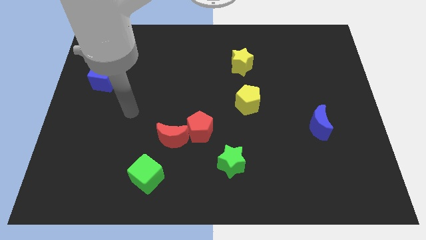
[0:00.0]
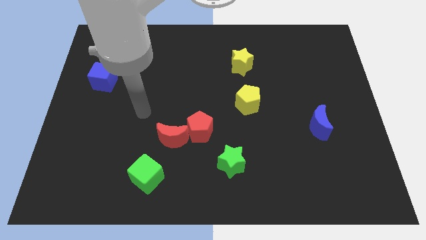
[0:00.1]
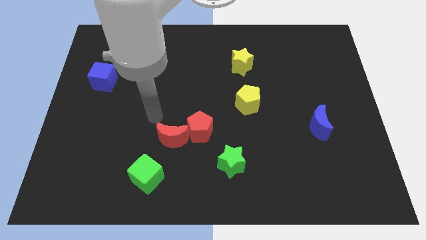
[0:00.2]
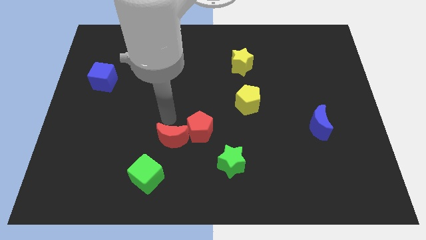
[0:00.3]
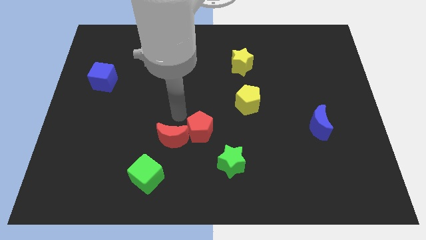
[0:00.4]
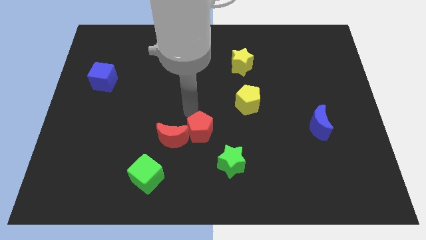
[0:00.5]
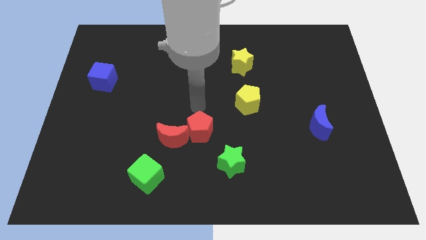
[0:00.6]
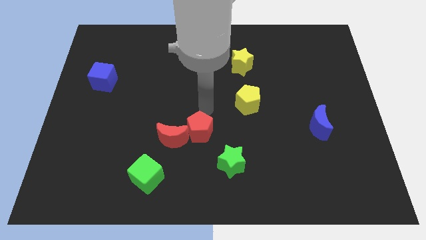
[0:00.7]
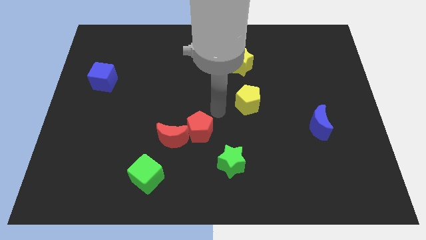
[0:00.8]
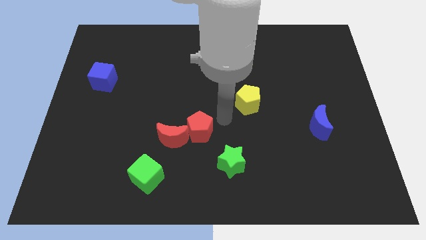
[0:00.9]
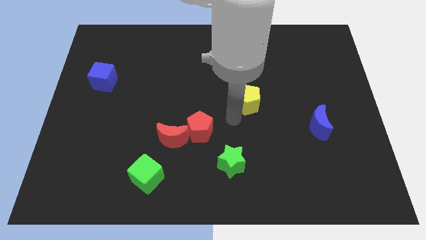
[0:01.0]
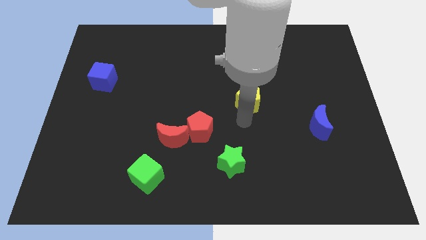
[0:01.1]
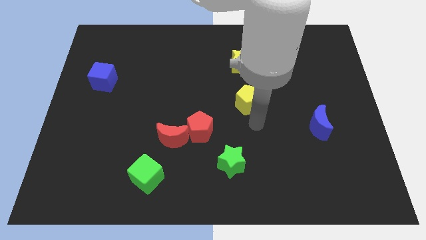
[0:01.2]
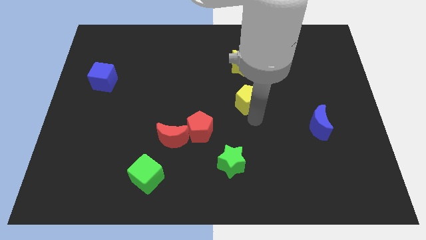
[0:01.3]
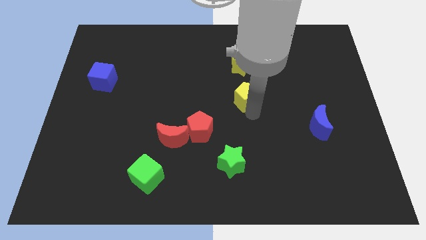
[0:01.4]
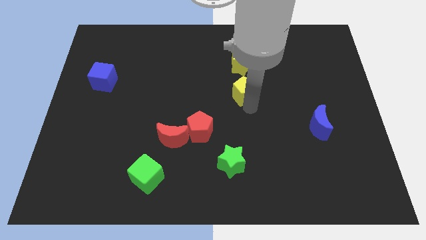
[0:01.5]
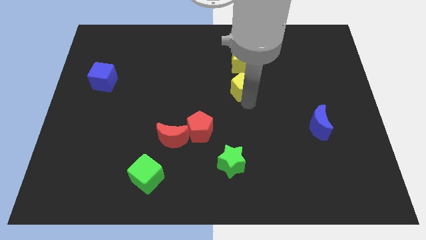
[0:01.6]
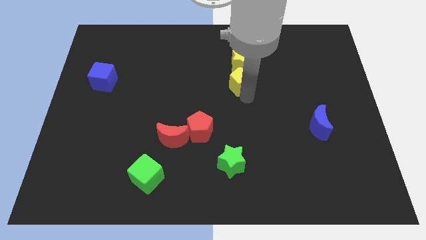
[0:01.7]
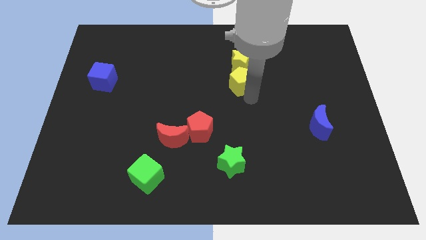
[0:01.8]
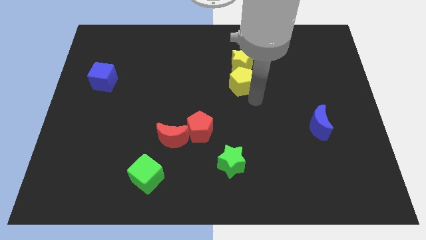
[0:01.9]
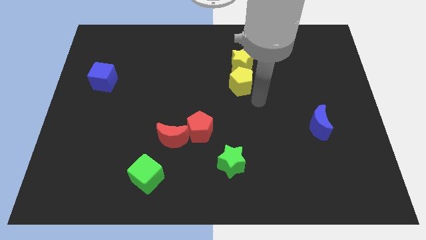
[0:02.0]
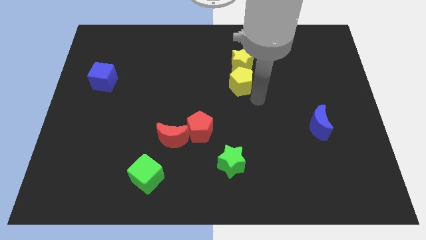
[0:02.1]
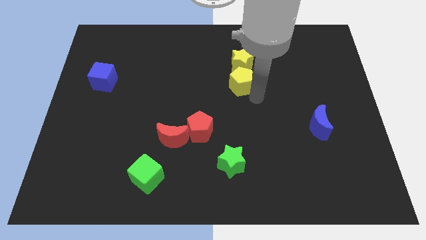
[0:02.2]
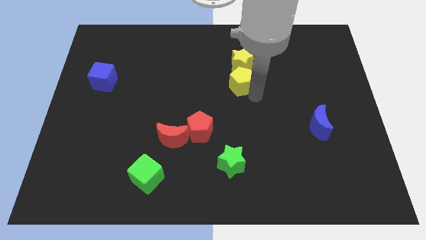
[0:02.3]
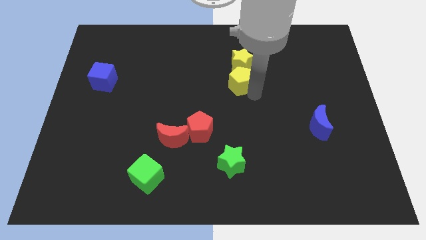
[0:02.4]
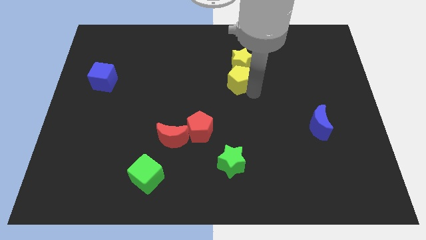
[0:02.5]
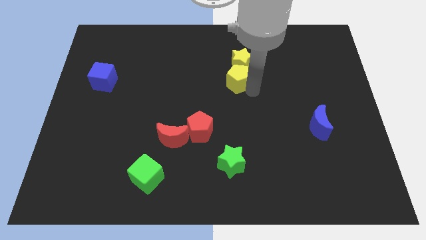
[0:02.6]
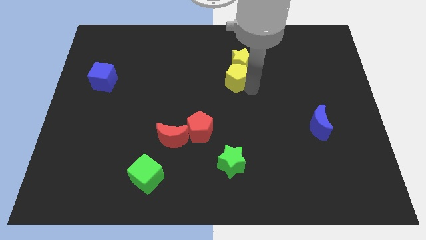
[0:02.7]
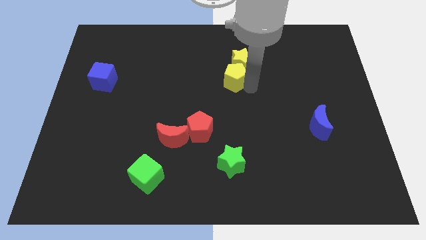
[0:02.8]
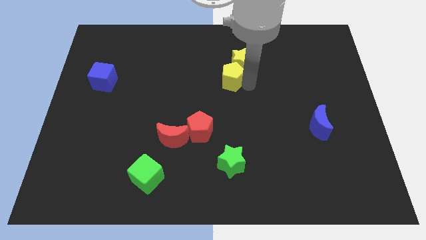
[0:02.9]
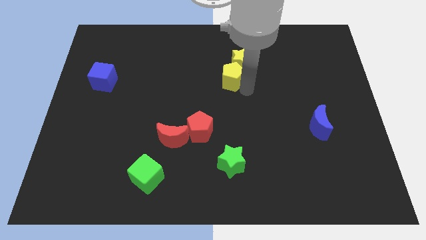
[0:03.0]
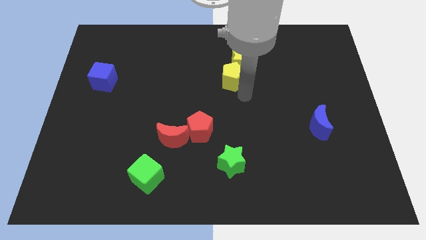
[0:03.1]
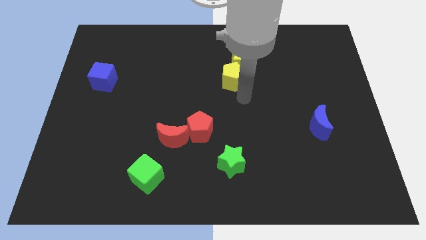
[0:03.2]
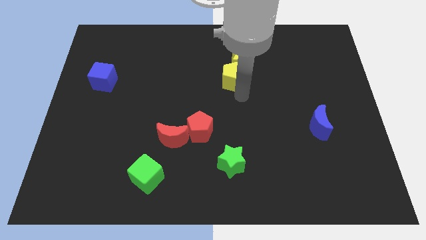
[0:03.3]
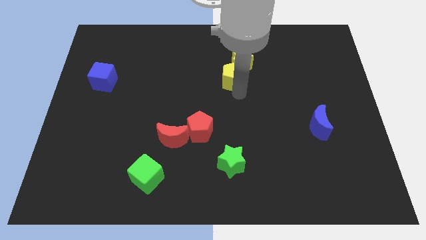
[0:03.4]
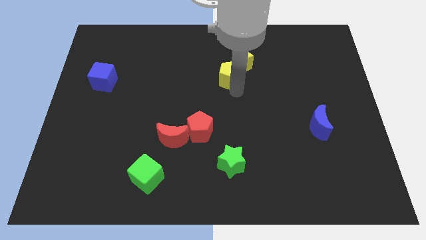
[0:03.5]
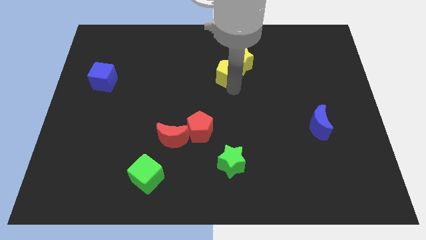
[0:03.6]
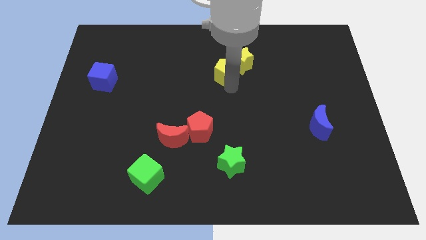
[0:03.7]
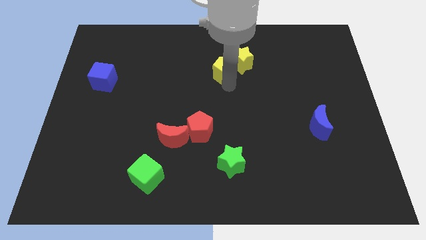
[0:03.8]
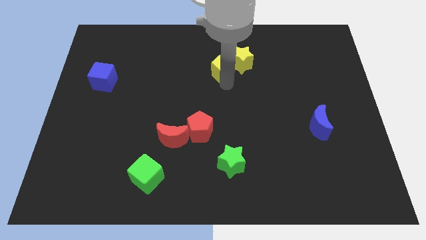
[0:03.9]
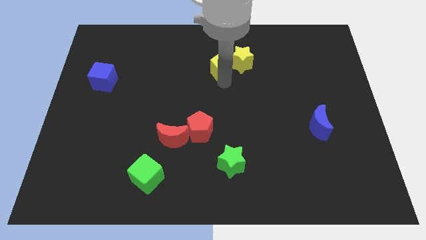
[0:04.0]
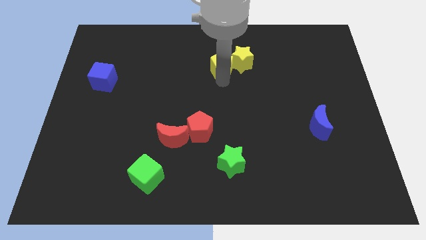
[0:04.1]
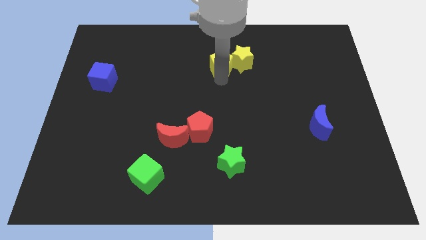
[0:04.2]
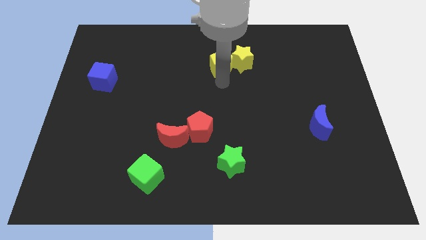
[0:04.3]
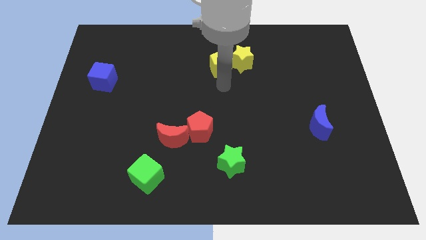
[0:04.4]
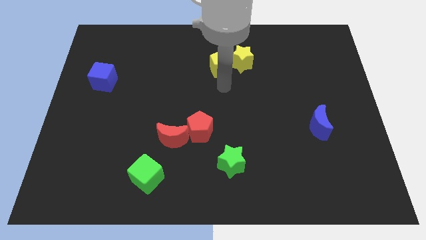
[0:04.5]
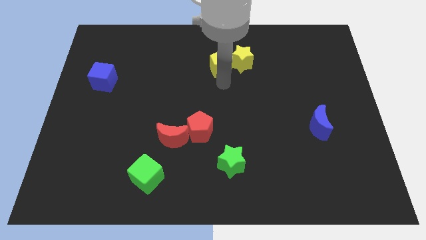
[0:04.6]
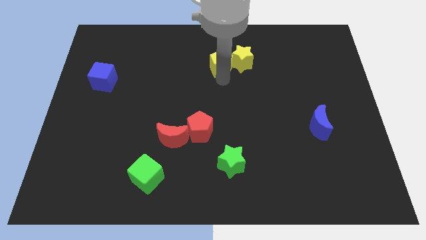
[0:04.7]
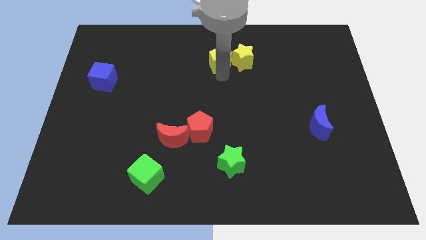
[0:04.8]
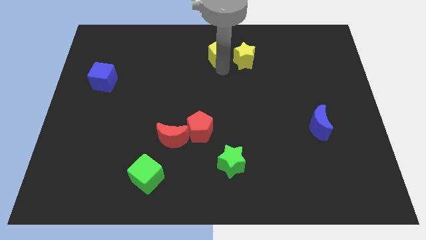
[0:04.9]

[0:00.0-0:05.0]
put the yellow pentagon to the top

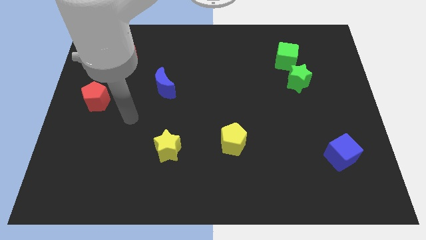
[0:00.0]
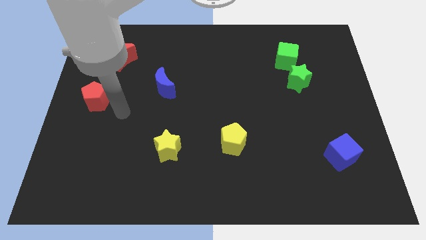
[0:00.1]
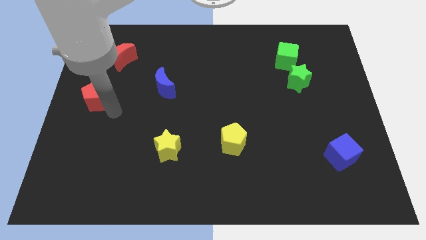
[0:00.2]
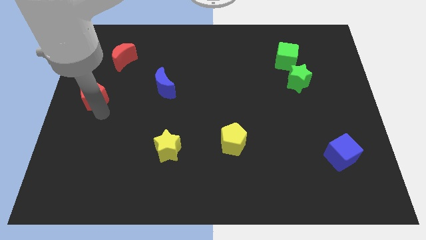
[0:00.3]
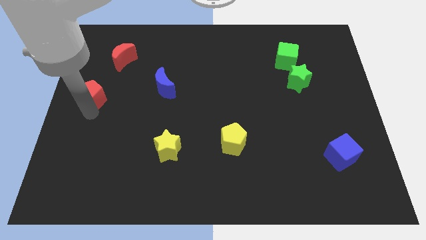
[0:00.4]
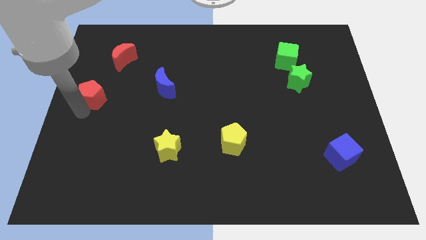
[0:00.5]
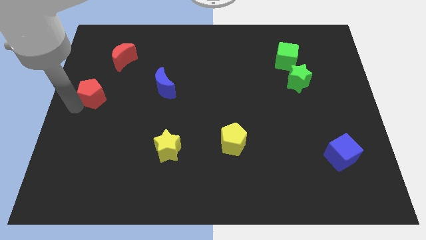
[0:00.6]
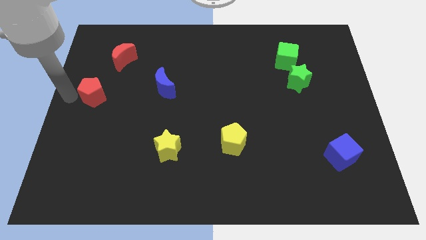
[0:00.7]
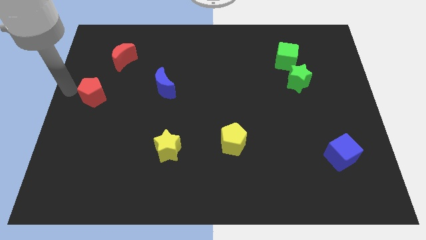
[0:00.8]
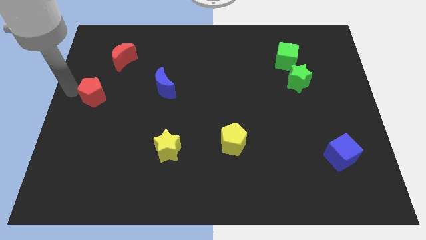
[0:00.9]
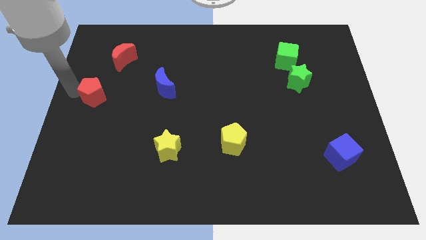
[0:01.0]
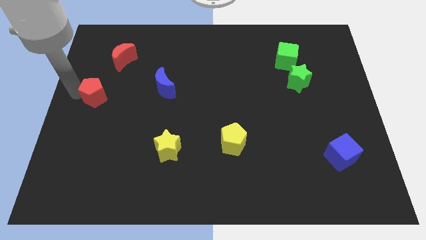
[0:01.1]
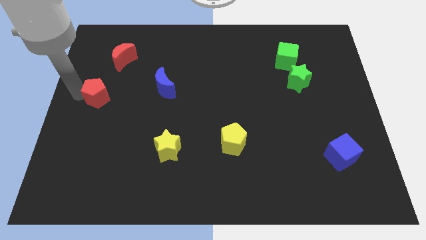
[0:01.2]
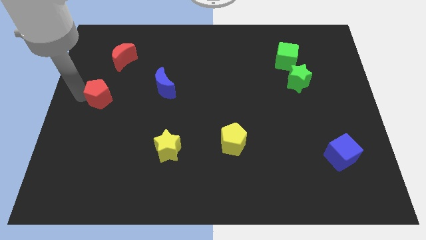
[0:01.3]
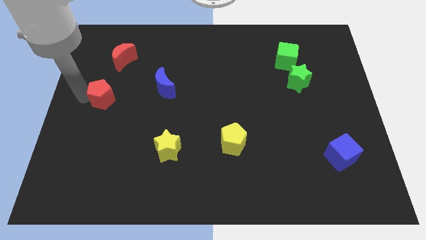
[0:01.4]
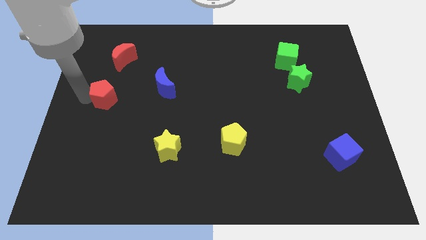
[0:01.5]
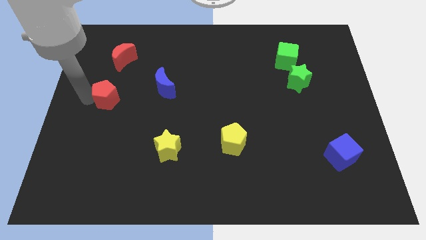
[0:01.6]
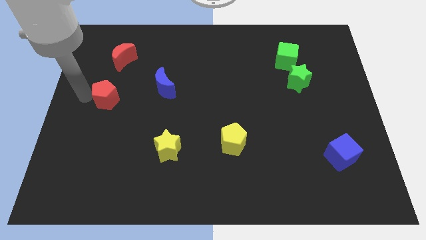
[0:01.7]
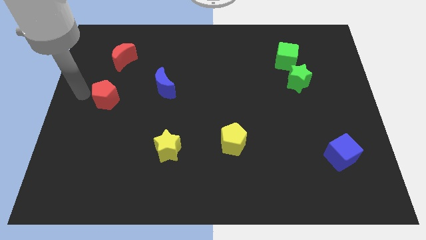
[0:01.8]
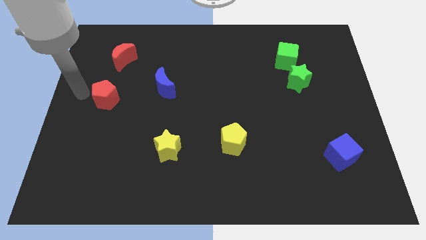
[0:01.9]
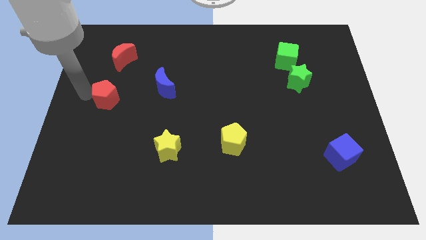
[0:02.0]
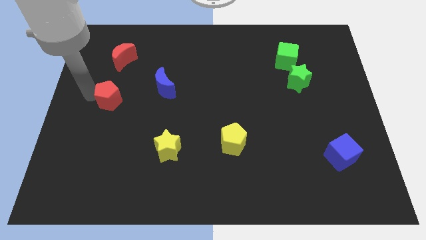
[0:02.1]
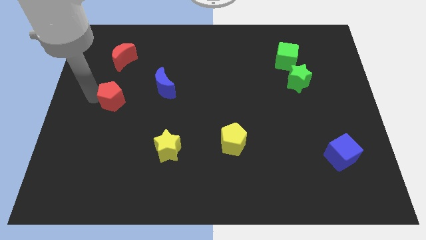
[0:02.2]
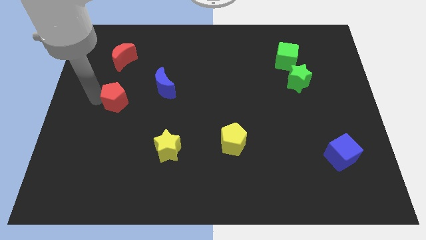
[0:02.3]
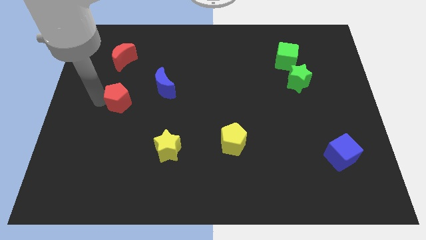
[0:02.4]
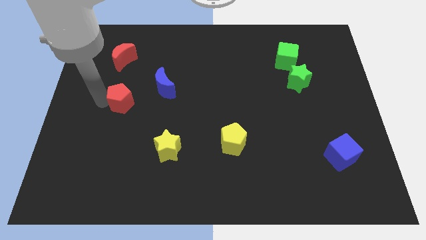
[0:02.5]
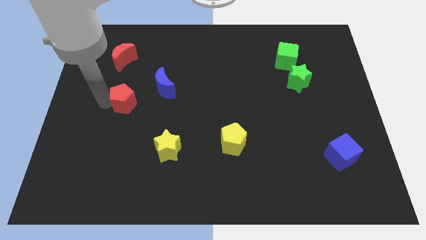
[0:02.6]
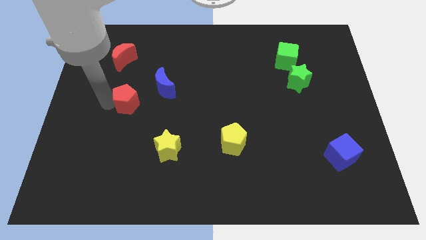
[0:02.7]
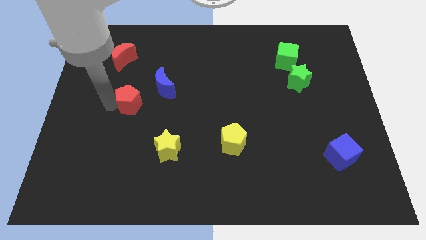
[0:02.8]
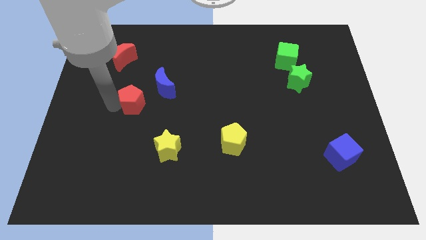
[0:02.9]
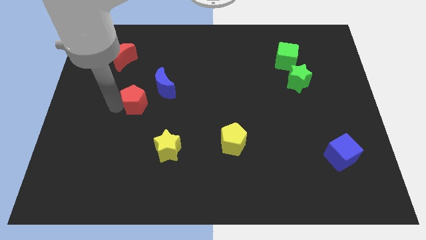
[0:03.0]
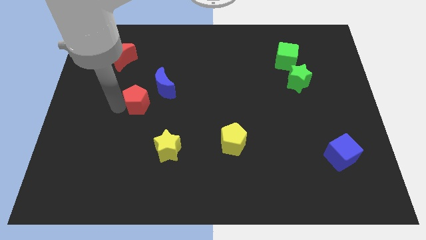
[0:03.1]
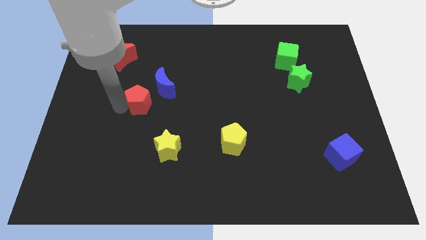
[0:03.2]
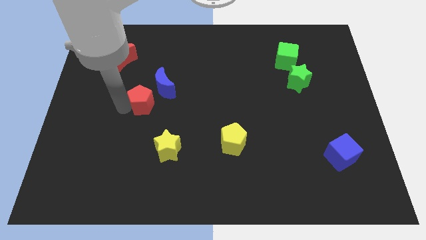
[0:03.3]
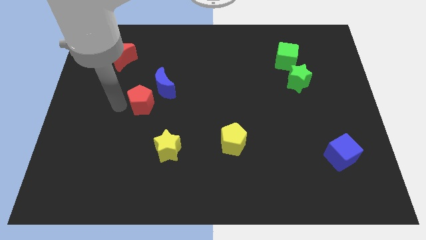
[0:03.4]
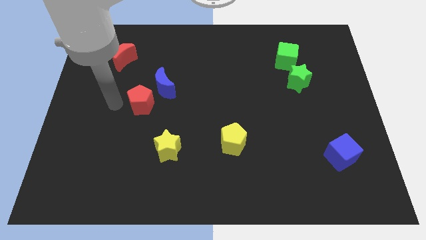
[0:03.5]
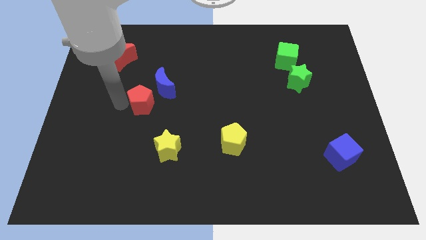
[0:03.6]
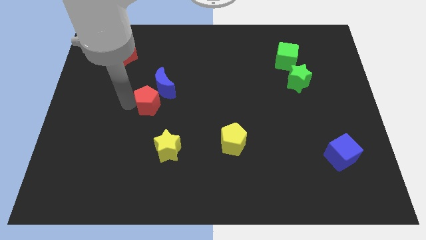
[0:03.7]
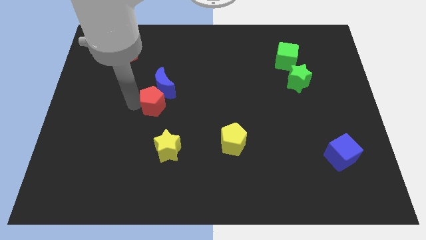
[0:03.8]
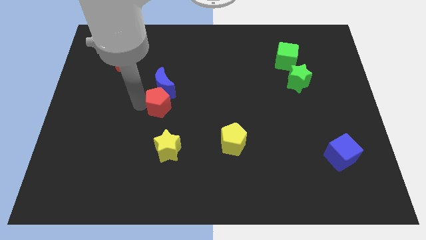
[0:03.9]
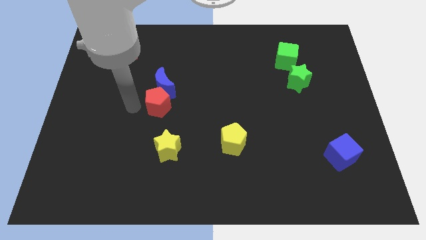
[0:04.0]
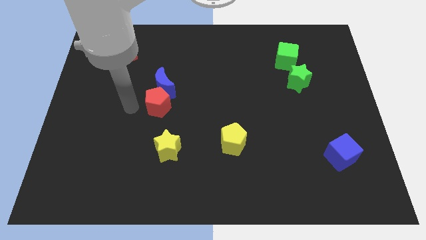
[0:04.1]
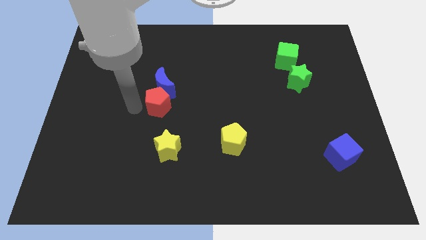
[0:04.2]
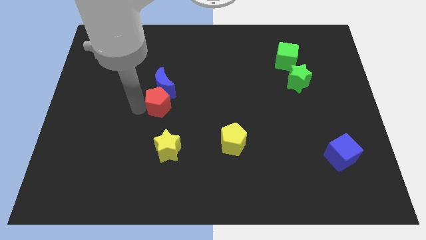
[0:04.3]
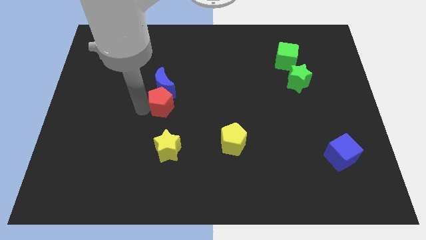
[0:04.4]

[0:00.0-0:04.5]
move the red pentagon to the center of the board
